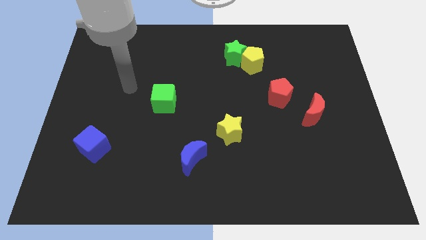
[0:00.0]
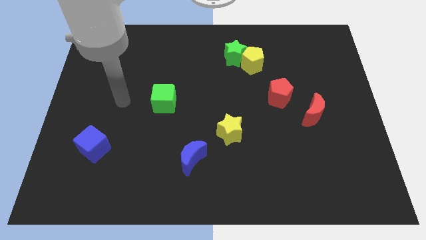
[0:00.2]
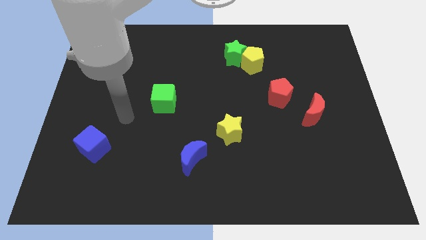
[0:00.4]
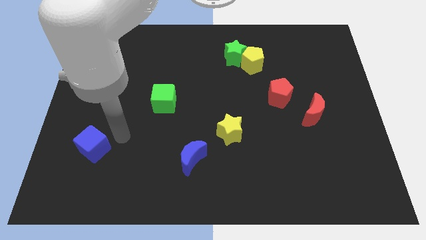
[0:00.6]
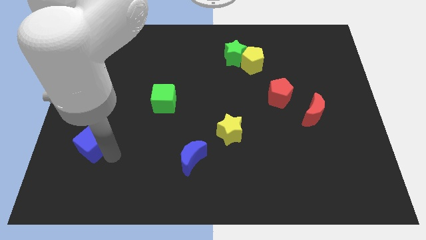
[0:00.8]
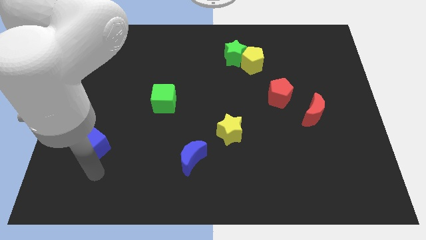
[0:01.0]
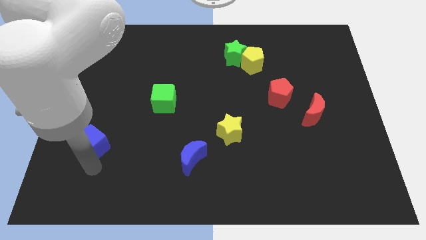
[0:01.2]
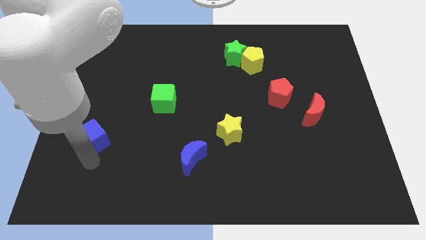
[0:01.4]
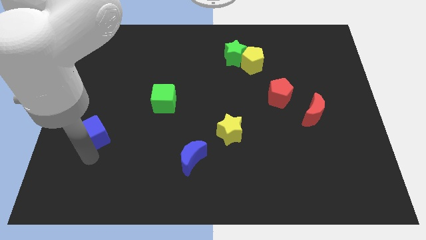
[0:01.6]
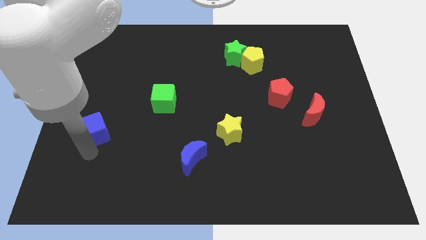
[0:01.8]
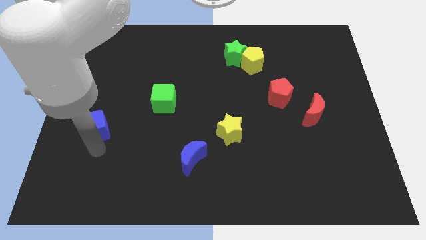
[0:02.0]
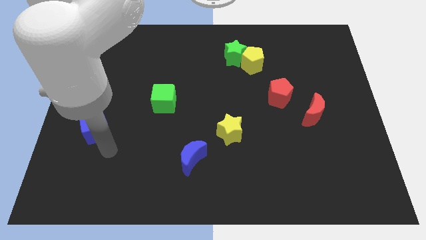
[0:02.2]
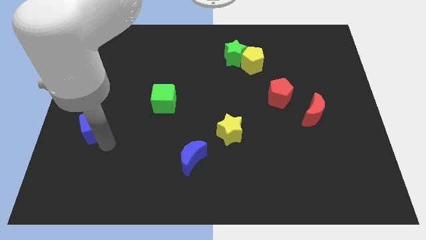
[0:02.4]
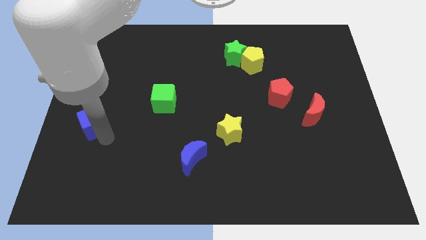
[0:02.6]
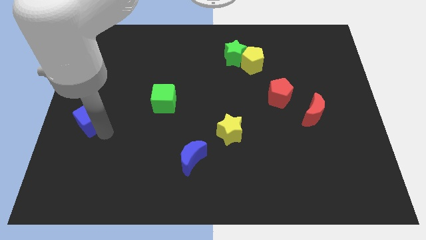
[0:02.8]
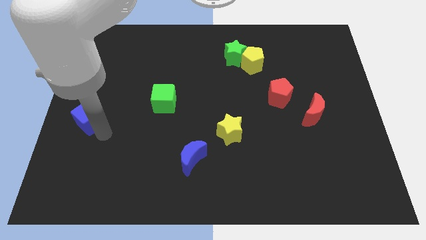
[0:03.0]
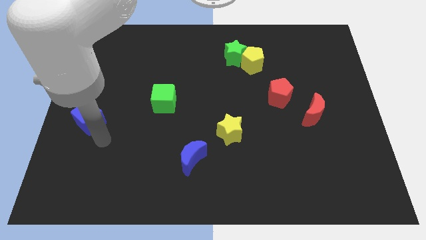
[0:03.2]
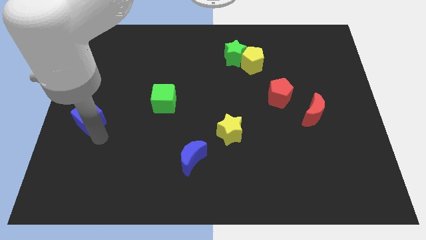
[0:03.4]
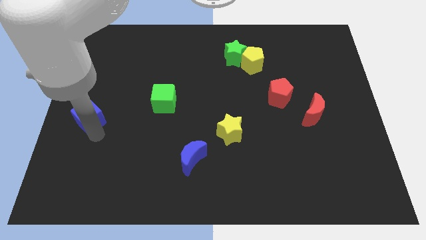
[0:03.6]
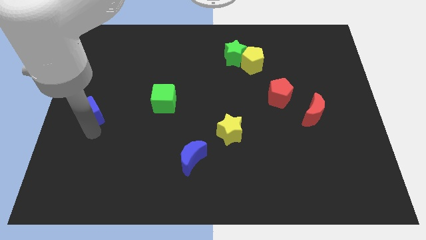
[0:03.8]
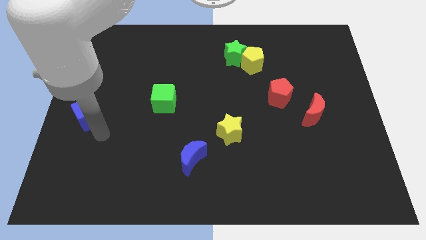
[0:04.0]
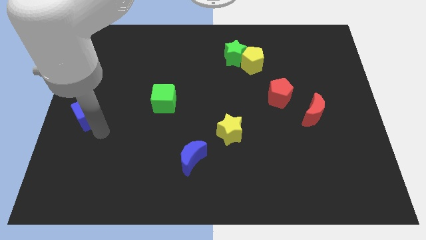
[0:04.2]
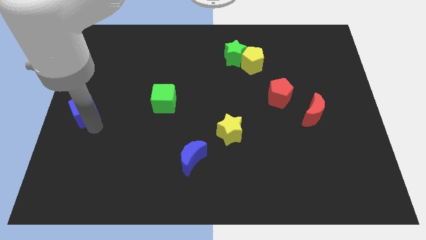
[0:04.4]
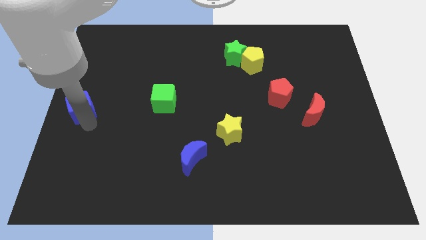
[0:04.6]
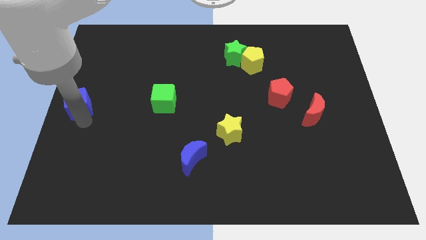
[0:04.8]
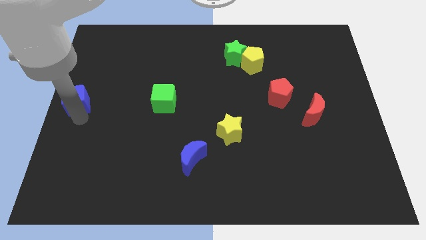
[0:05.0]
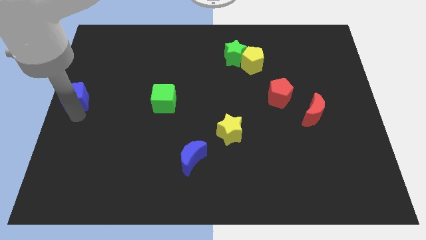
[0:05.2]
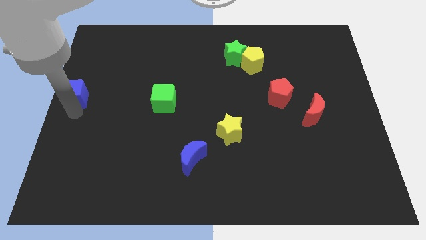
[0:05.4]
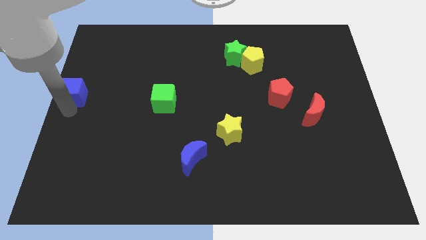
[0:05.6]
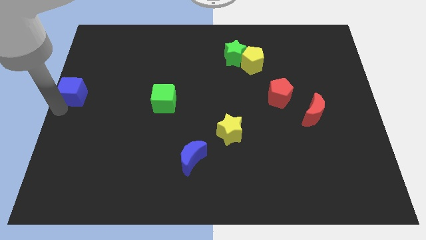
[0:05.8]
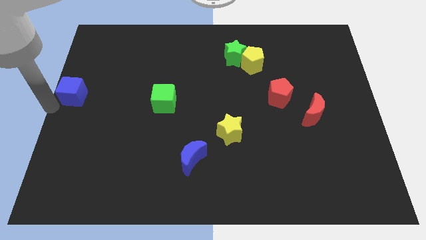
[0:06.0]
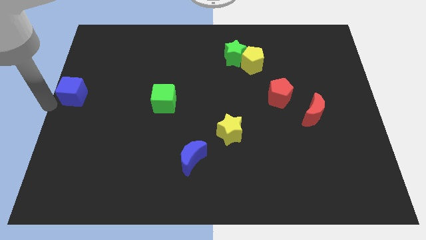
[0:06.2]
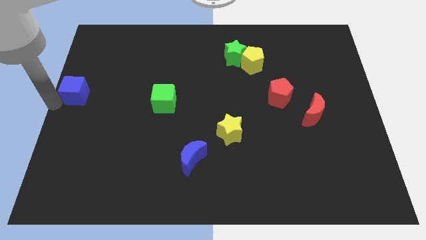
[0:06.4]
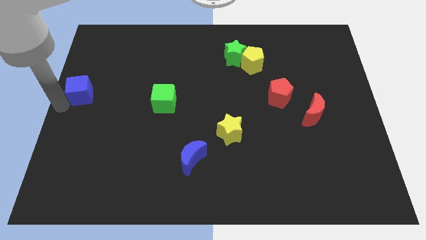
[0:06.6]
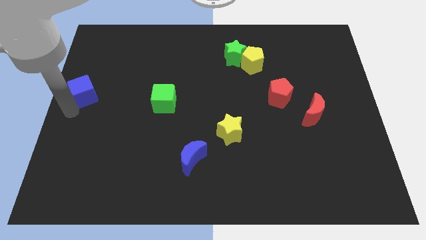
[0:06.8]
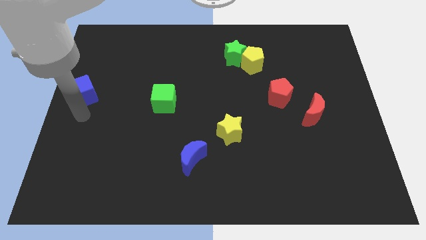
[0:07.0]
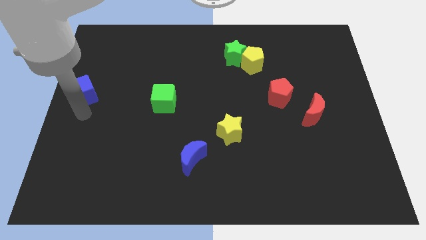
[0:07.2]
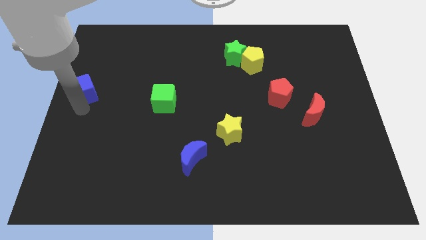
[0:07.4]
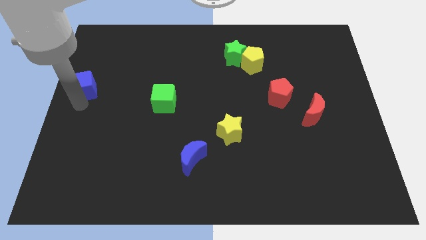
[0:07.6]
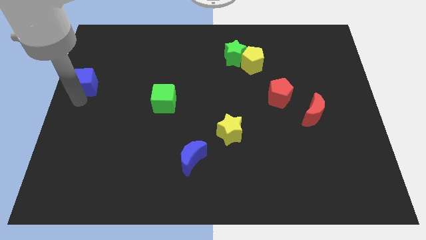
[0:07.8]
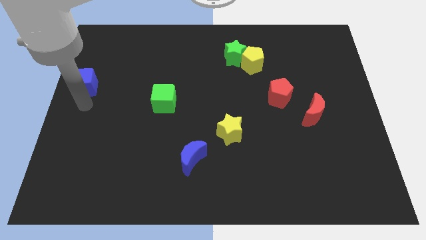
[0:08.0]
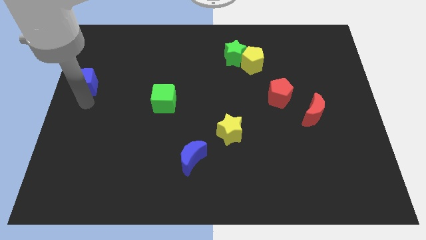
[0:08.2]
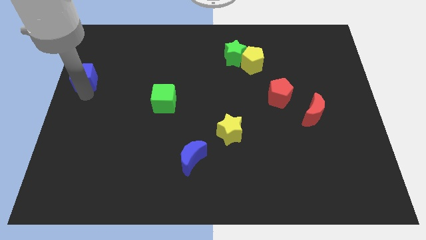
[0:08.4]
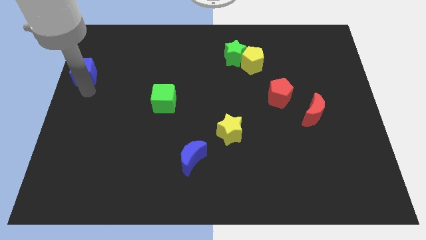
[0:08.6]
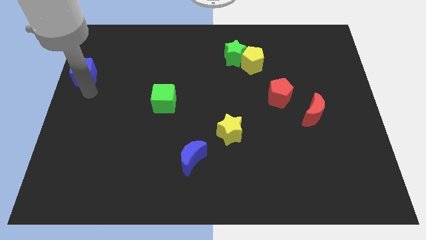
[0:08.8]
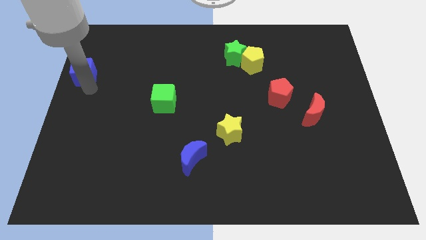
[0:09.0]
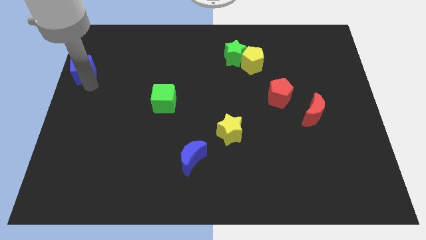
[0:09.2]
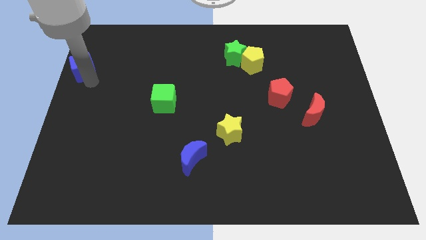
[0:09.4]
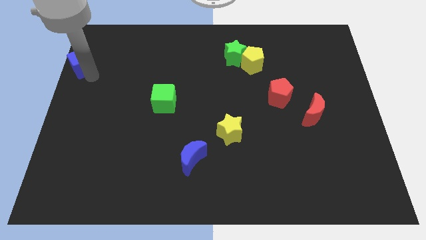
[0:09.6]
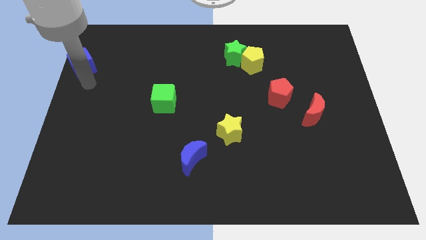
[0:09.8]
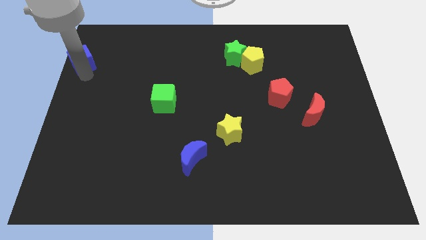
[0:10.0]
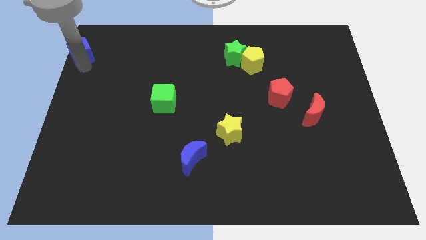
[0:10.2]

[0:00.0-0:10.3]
put the blue cube to the top left of the board

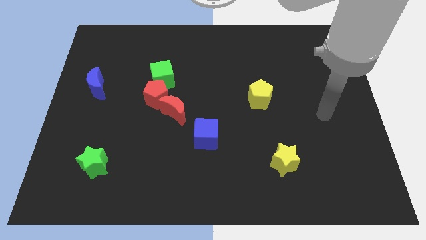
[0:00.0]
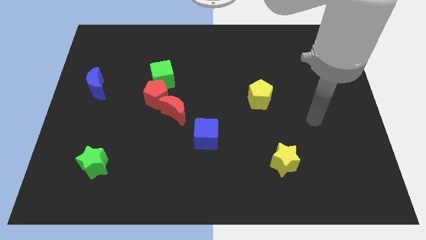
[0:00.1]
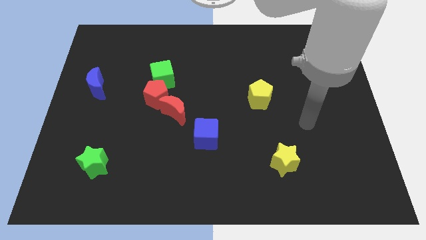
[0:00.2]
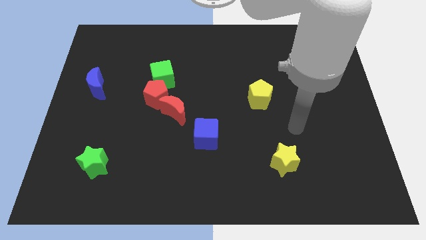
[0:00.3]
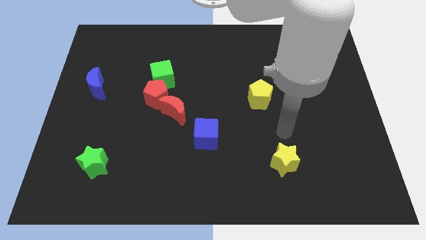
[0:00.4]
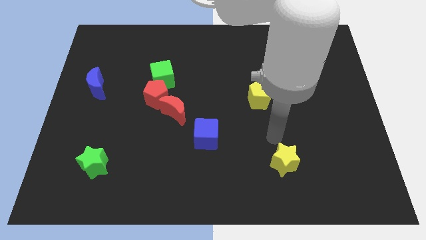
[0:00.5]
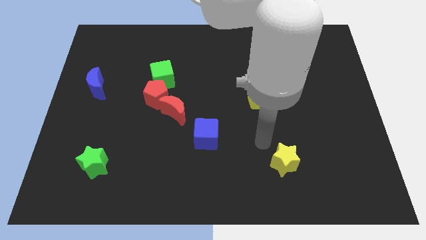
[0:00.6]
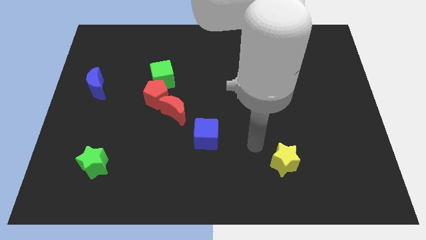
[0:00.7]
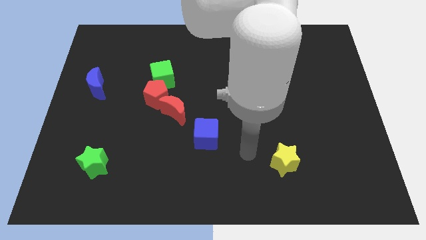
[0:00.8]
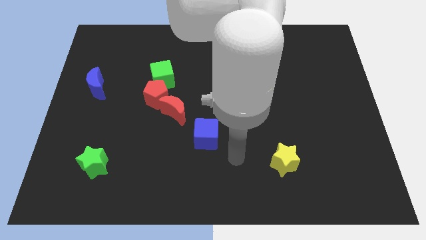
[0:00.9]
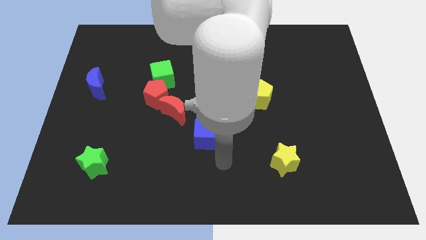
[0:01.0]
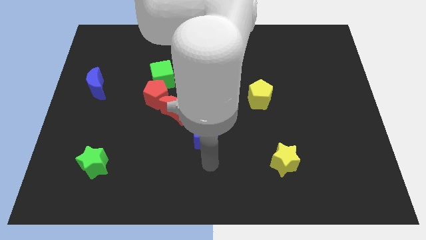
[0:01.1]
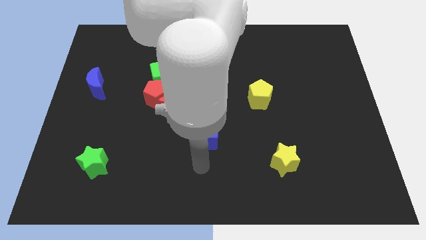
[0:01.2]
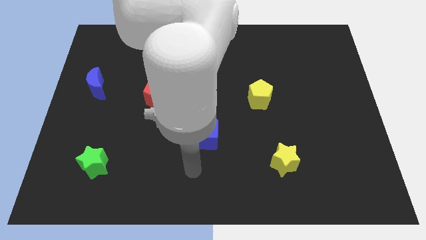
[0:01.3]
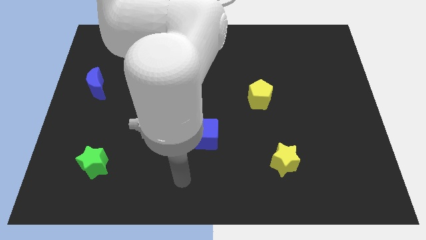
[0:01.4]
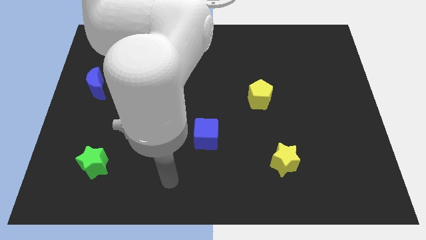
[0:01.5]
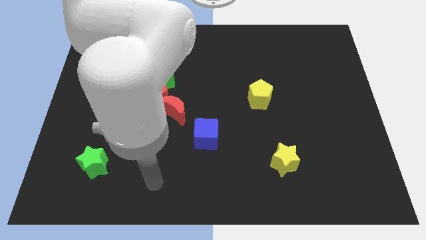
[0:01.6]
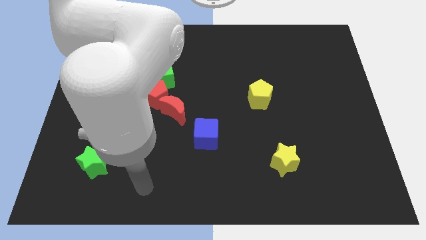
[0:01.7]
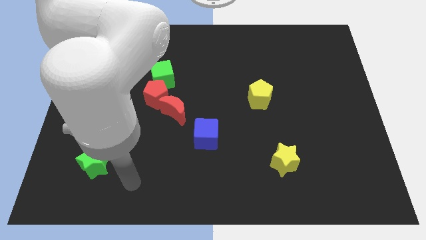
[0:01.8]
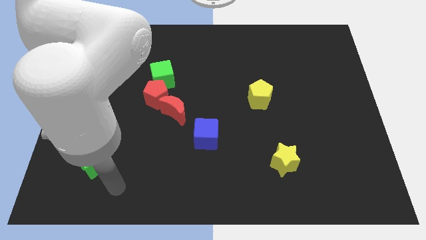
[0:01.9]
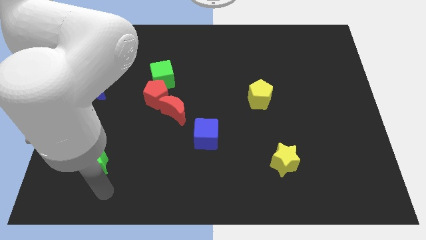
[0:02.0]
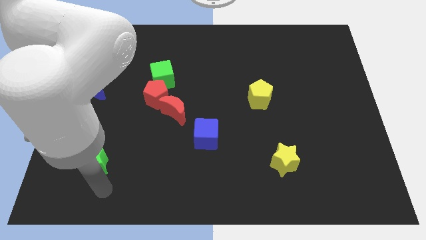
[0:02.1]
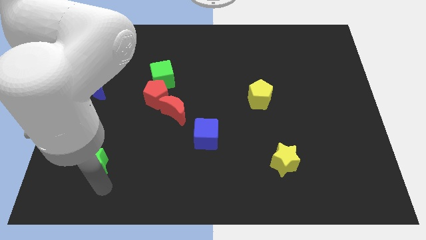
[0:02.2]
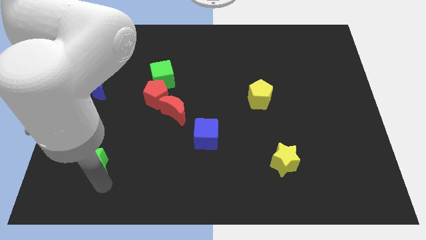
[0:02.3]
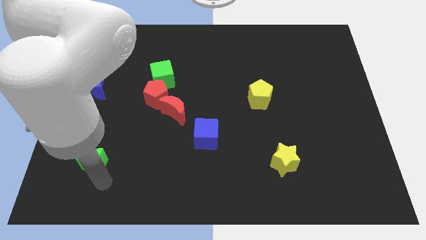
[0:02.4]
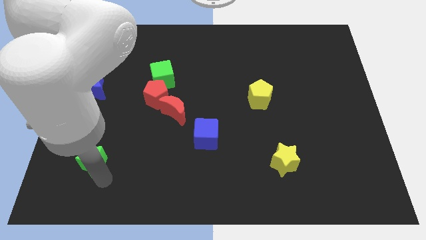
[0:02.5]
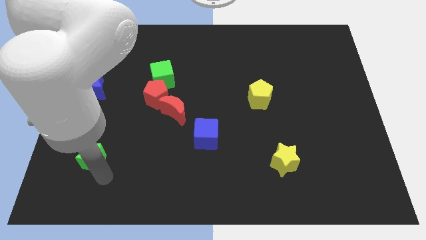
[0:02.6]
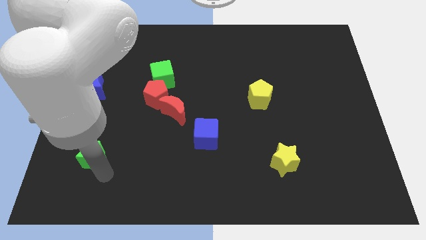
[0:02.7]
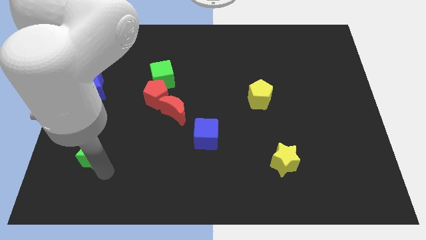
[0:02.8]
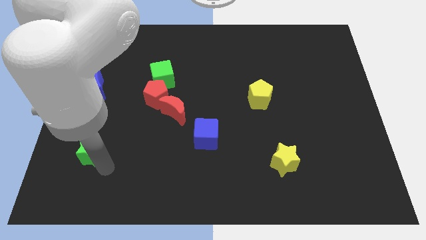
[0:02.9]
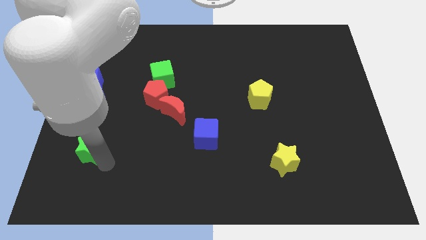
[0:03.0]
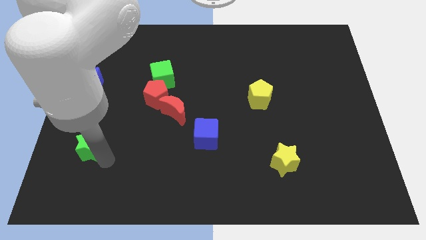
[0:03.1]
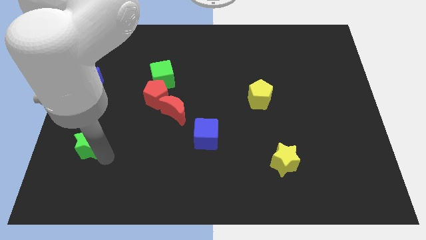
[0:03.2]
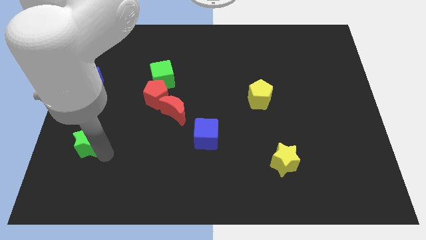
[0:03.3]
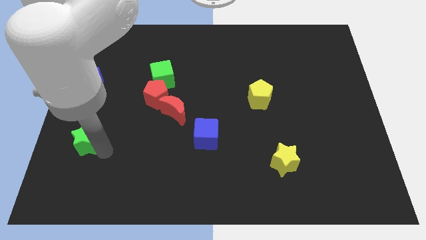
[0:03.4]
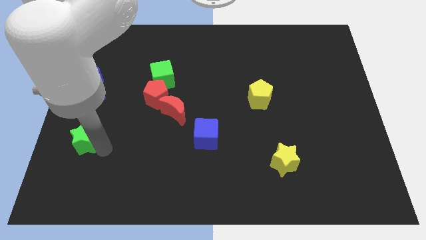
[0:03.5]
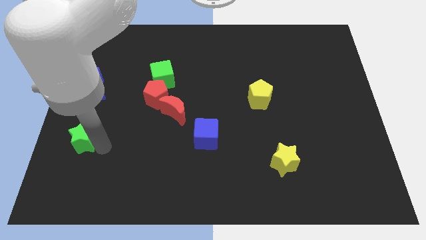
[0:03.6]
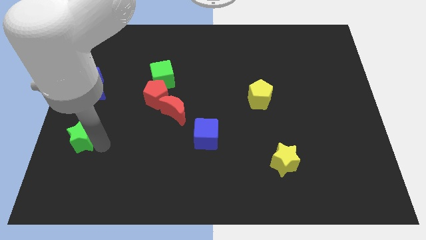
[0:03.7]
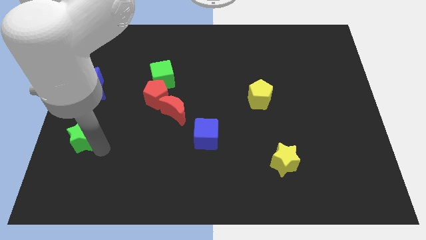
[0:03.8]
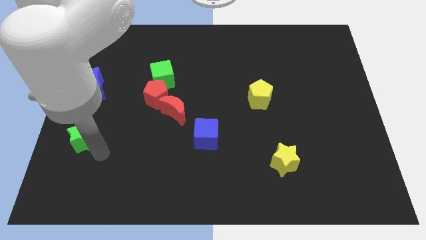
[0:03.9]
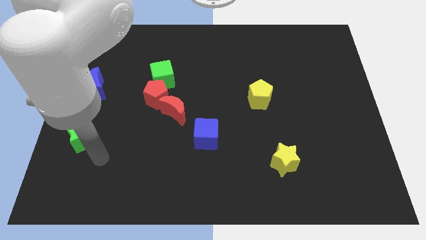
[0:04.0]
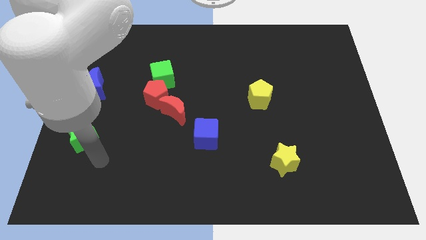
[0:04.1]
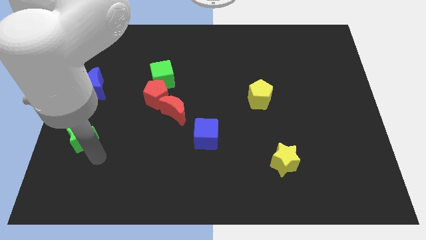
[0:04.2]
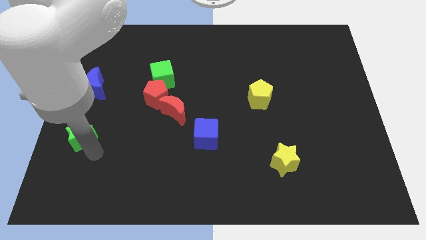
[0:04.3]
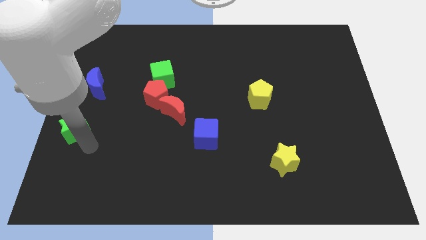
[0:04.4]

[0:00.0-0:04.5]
put the green star to the center left
